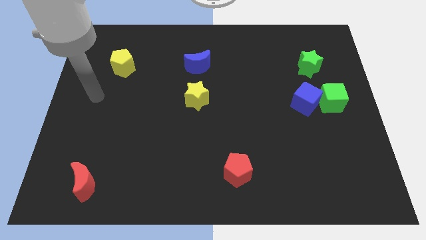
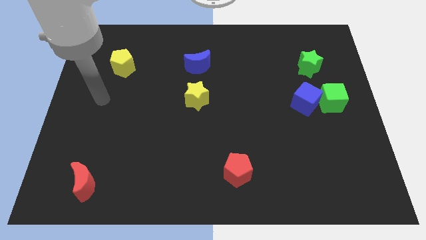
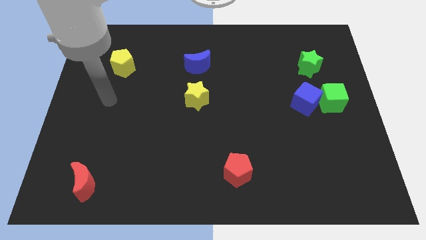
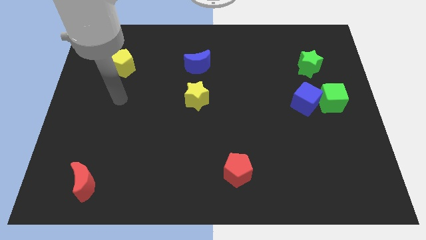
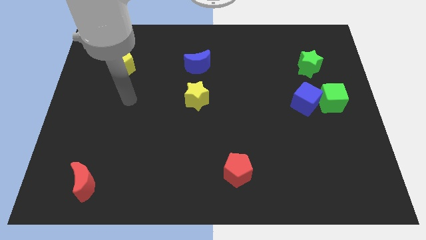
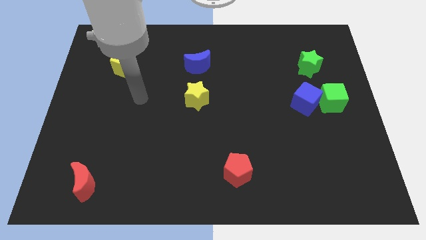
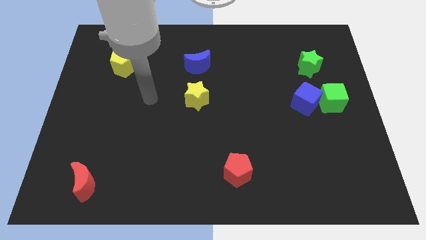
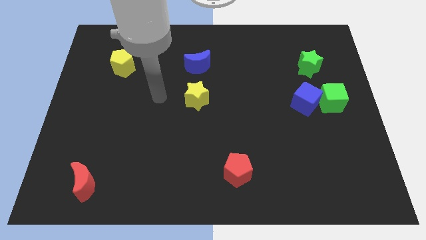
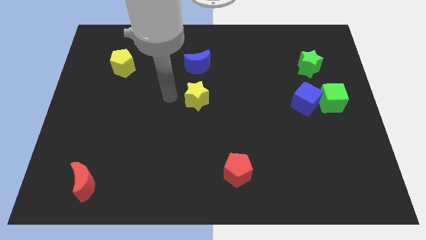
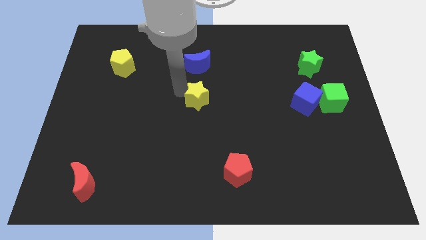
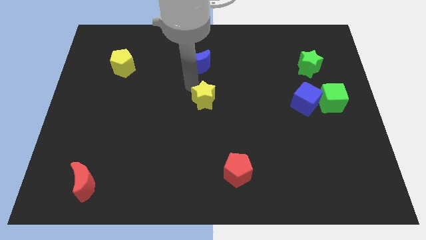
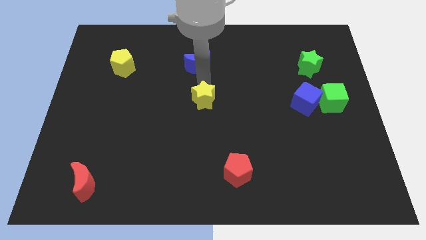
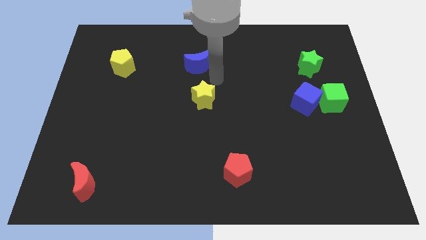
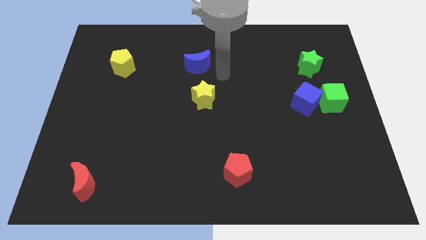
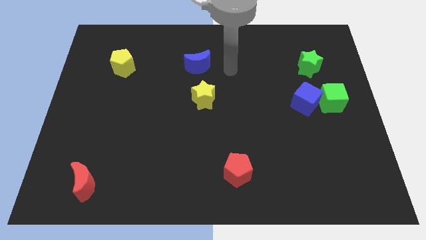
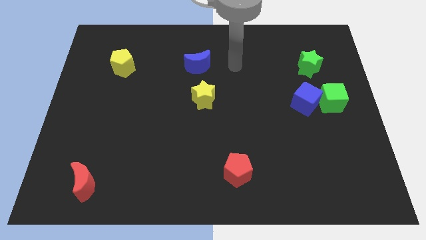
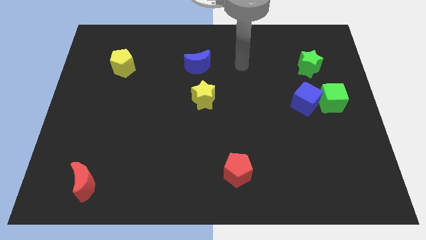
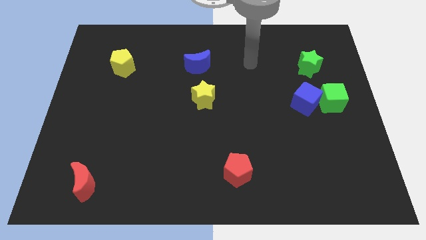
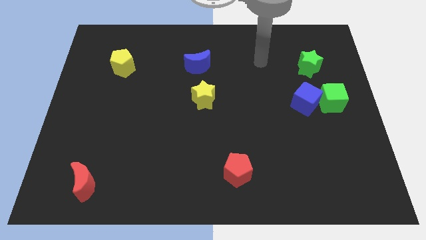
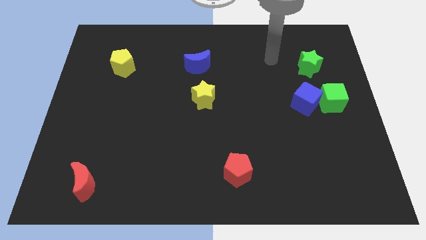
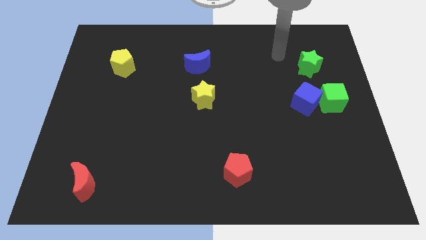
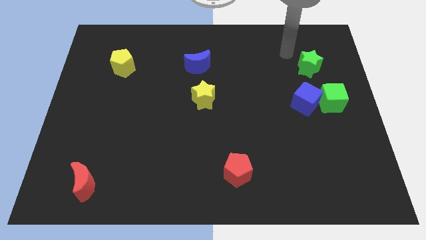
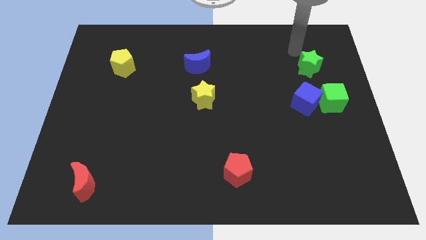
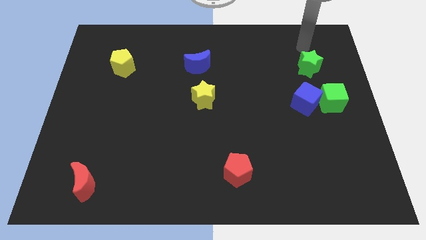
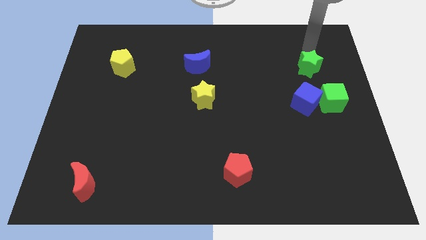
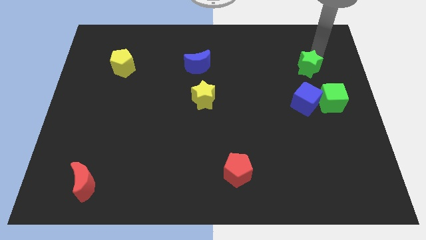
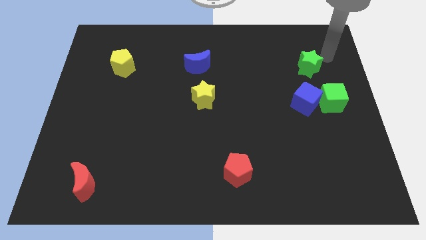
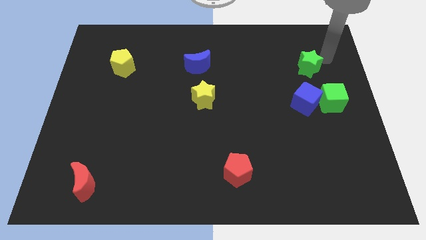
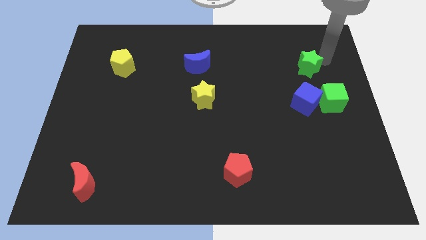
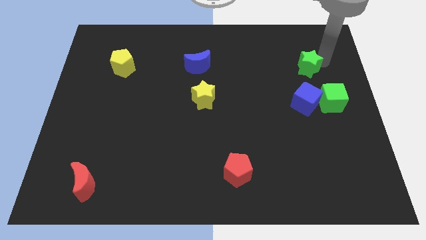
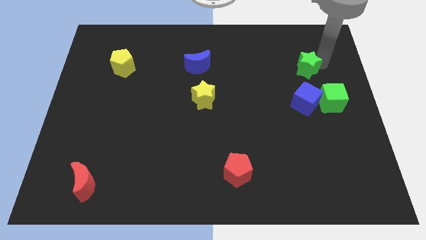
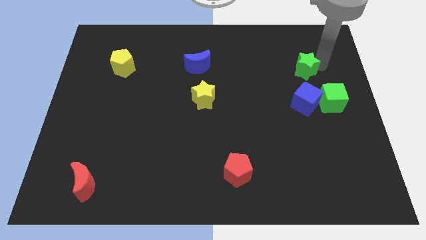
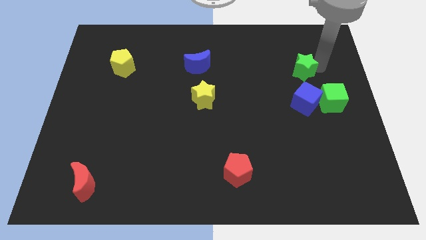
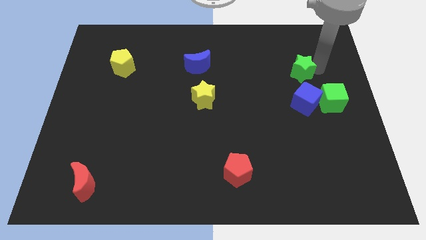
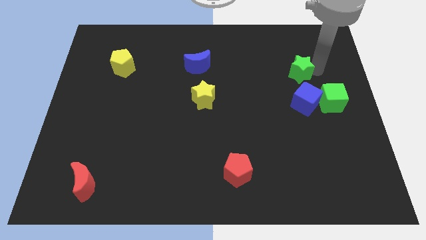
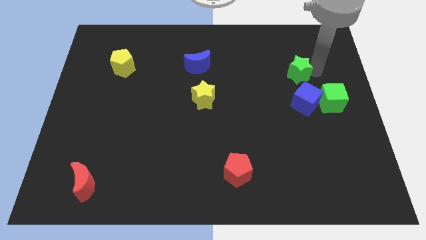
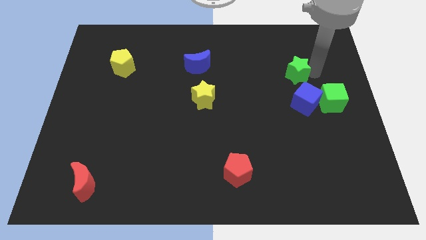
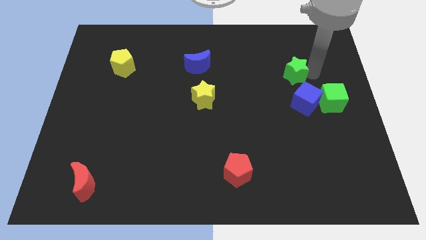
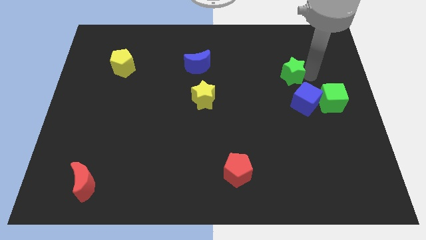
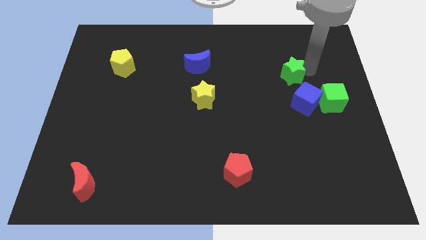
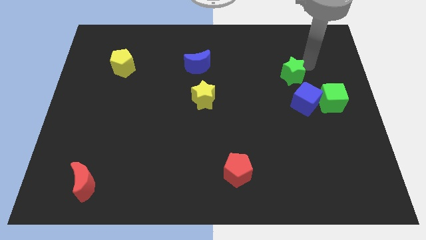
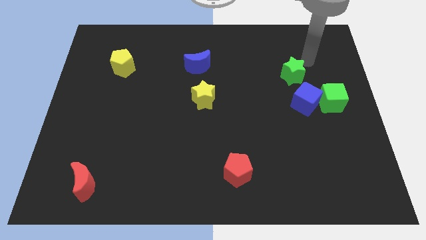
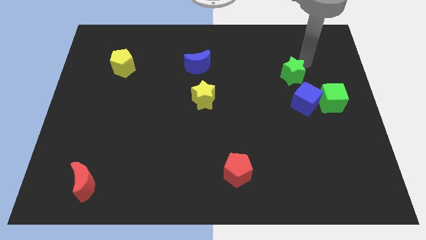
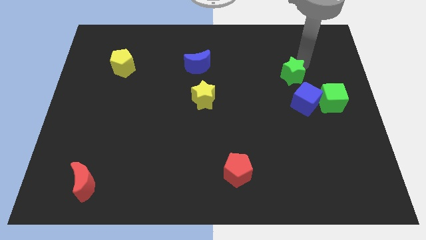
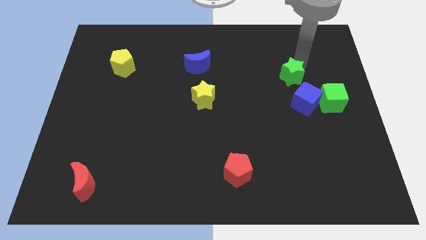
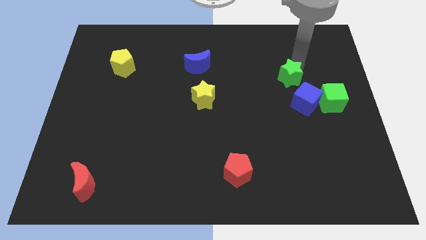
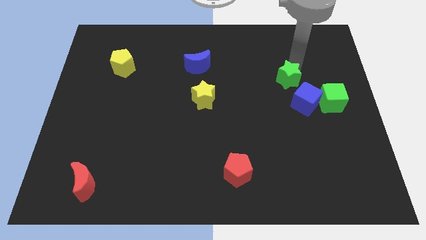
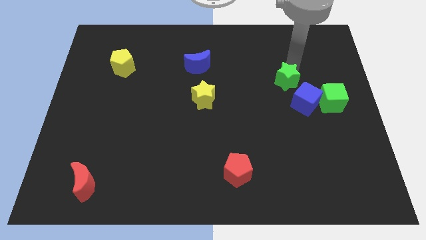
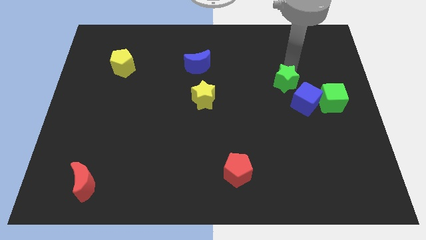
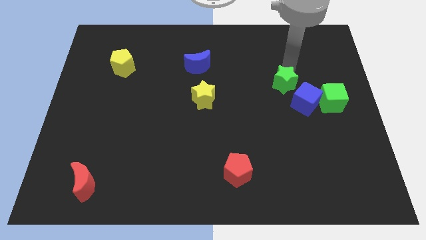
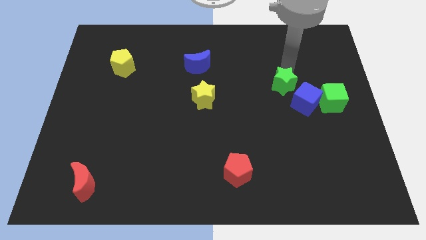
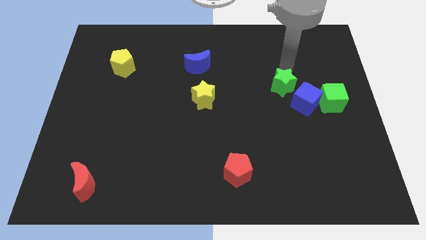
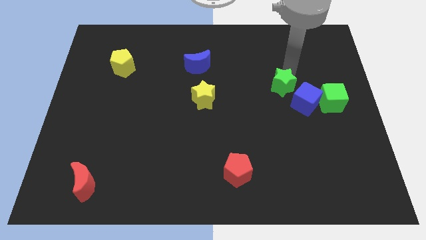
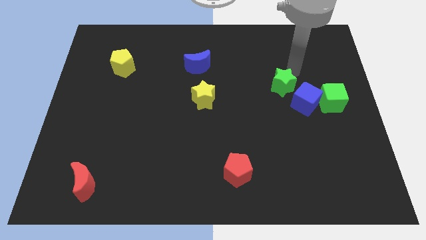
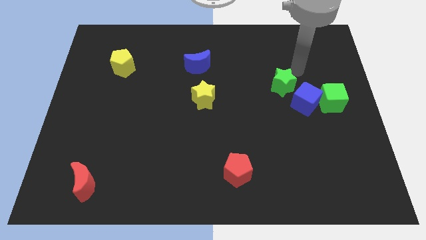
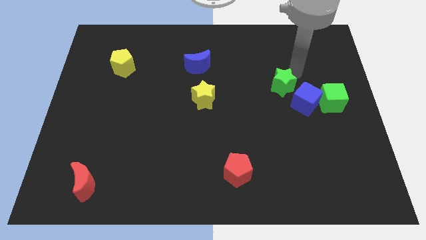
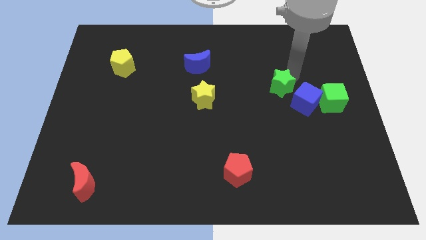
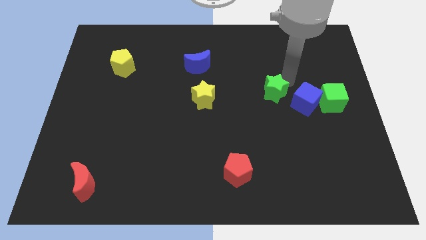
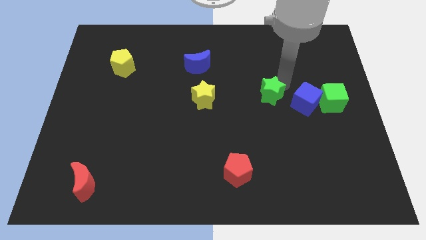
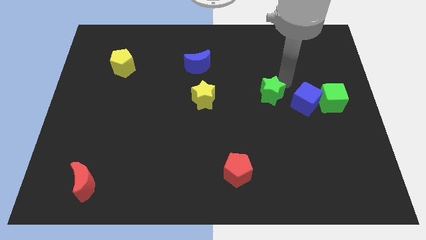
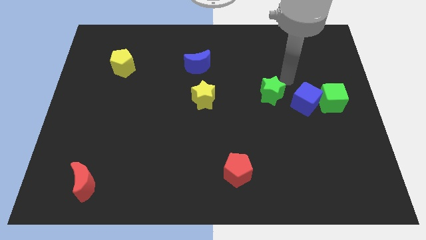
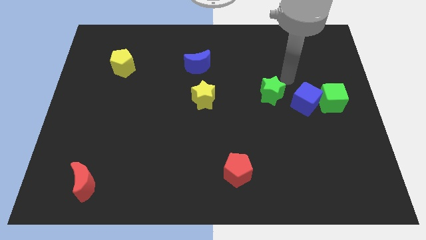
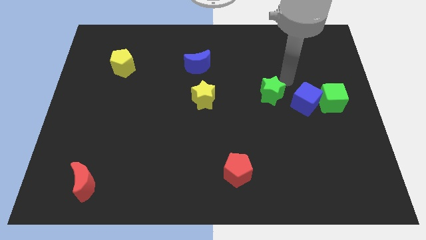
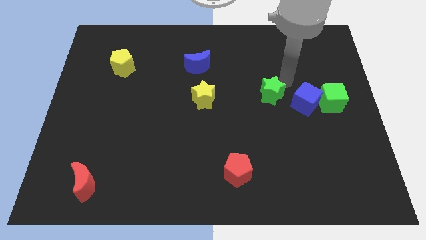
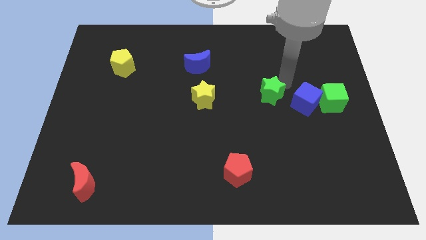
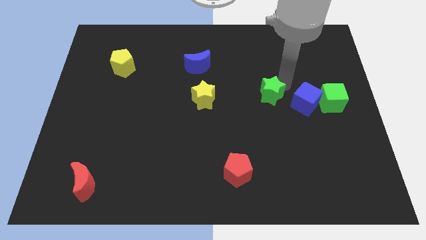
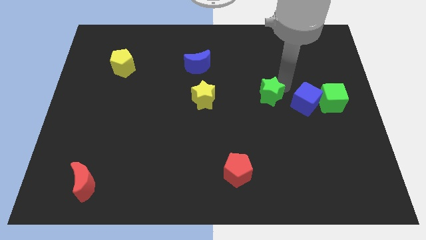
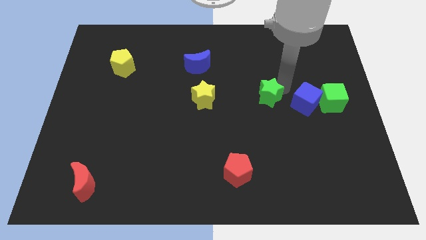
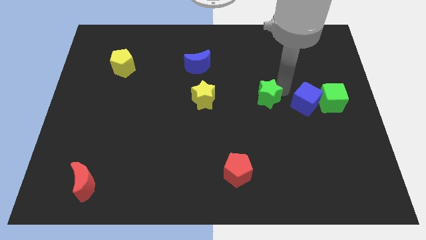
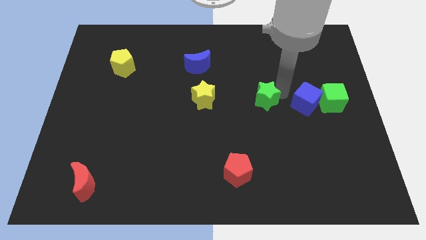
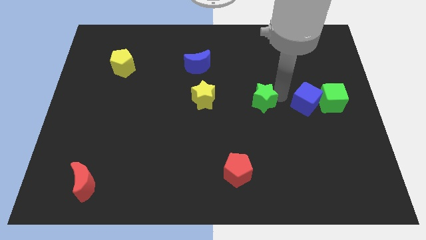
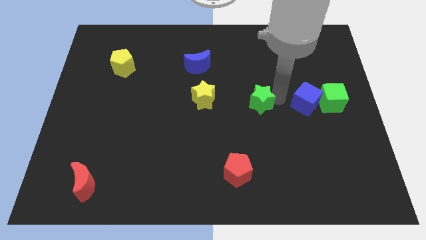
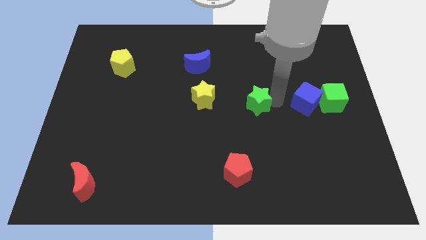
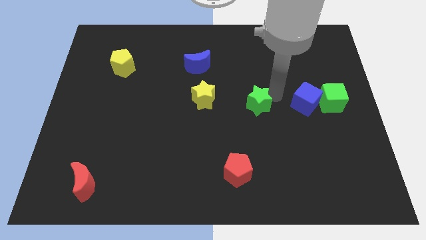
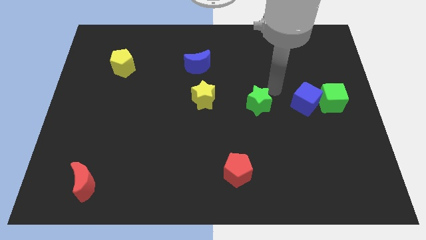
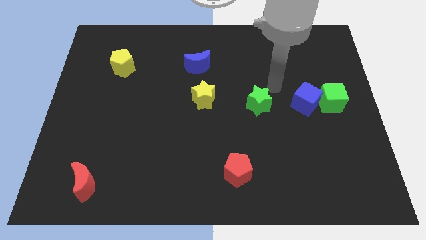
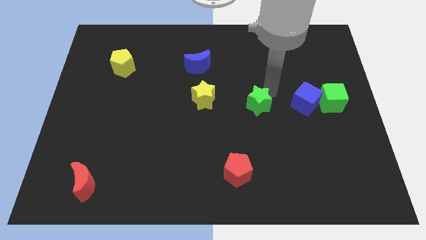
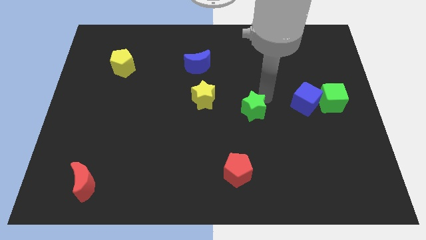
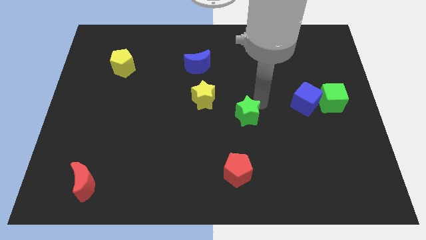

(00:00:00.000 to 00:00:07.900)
slide the green star to the top side of the red pentagon
